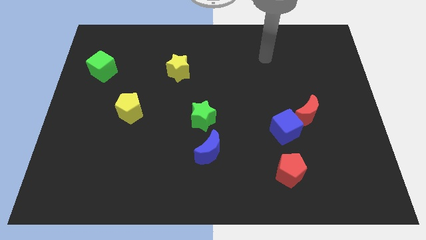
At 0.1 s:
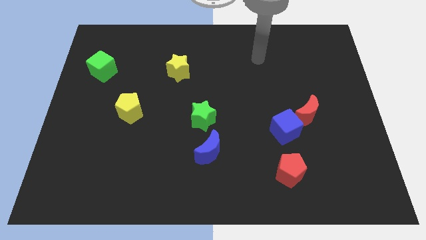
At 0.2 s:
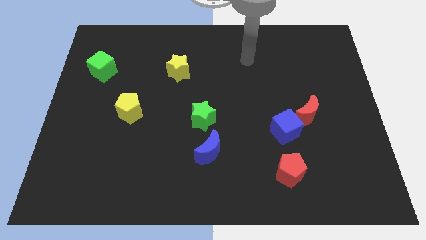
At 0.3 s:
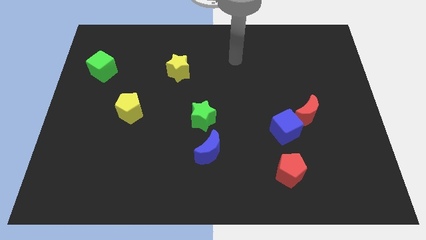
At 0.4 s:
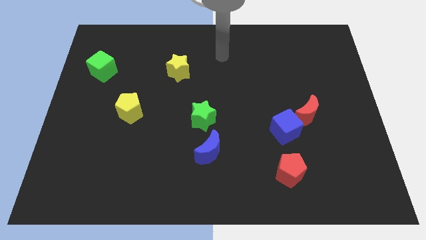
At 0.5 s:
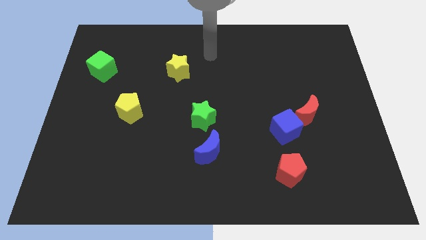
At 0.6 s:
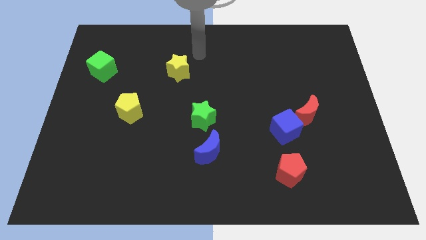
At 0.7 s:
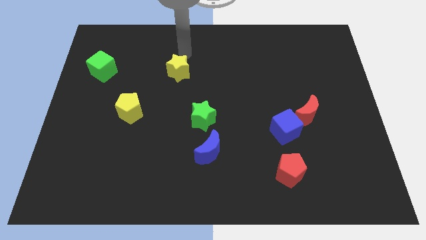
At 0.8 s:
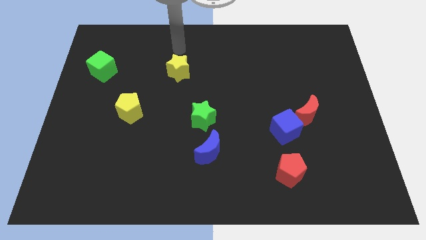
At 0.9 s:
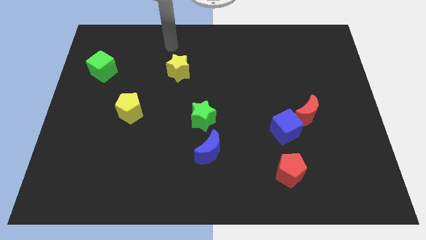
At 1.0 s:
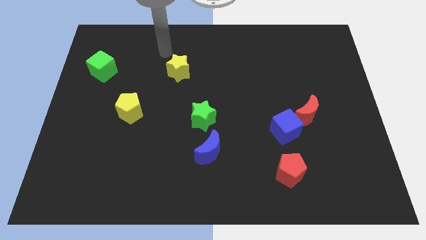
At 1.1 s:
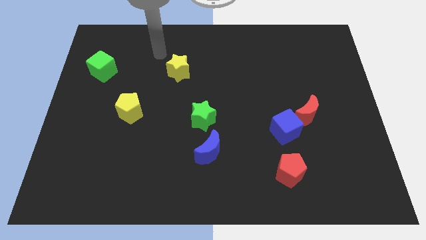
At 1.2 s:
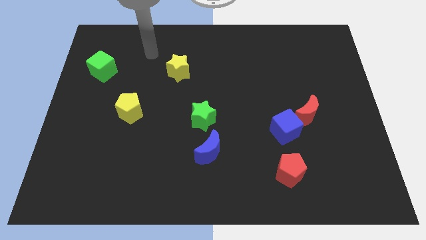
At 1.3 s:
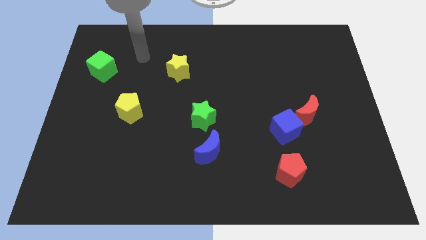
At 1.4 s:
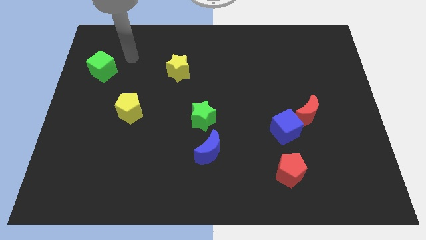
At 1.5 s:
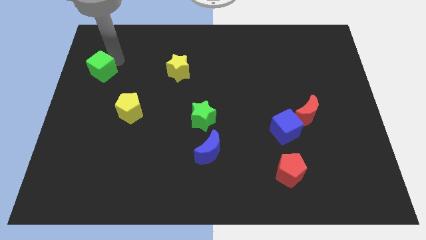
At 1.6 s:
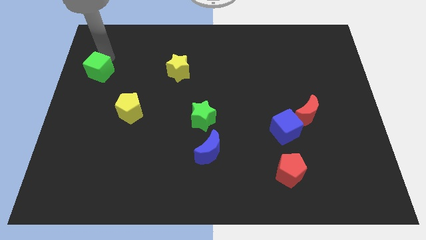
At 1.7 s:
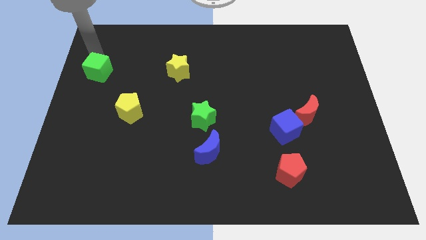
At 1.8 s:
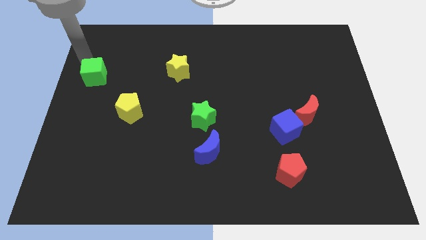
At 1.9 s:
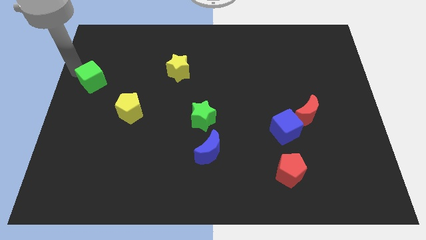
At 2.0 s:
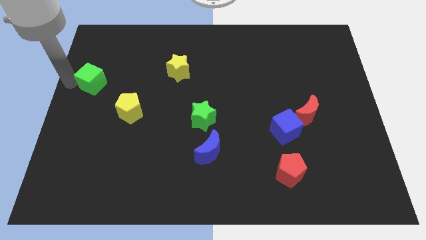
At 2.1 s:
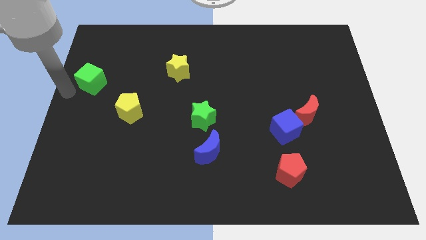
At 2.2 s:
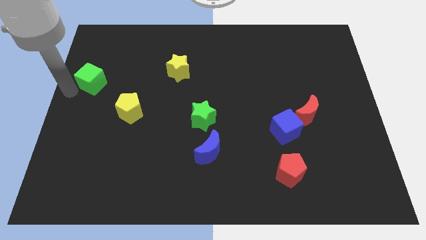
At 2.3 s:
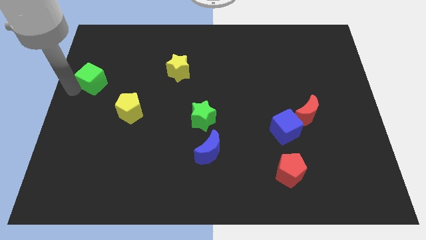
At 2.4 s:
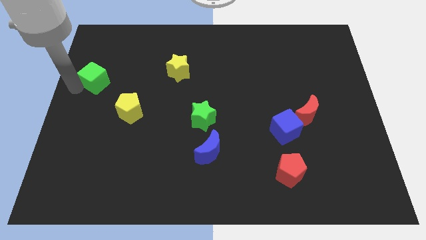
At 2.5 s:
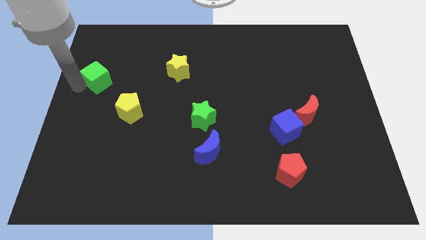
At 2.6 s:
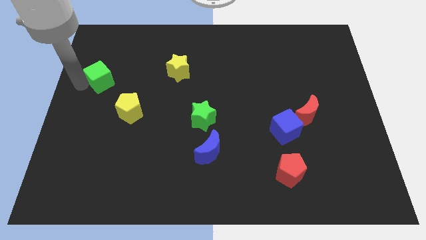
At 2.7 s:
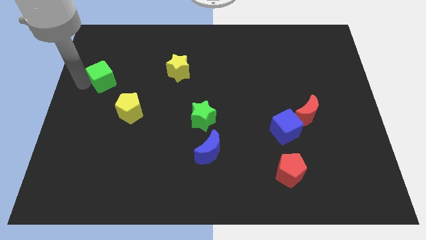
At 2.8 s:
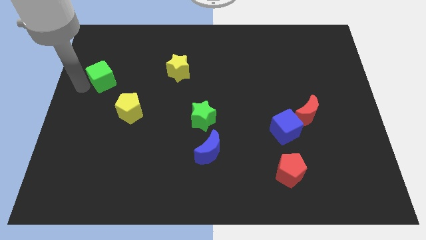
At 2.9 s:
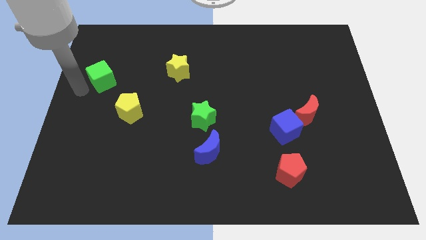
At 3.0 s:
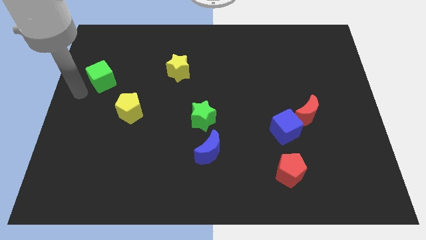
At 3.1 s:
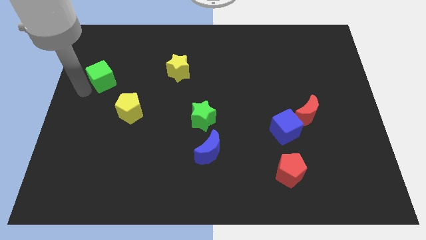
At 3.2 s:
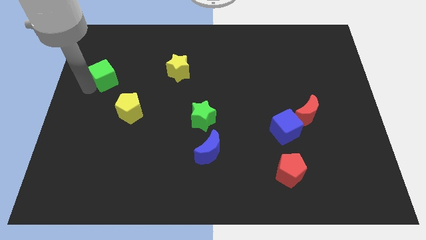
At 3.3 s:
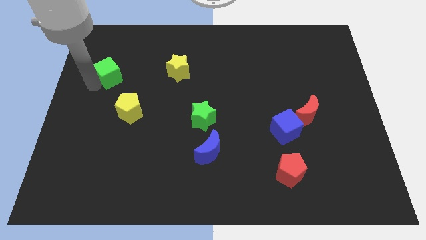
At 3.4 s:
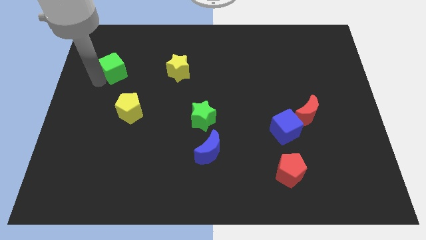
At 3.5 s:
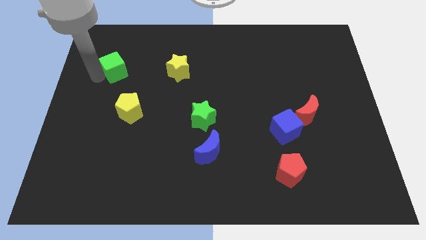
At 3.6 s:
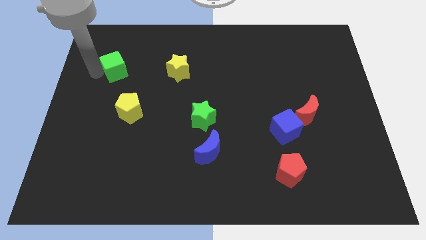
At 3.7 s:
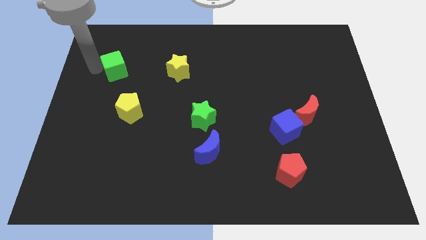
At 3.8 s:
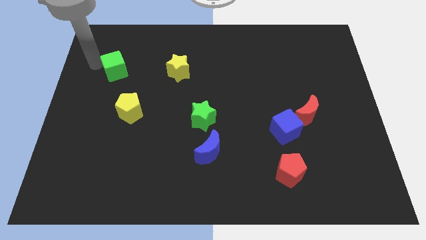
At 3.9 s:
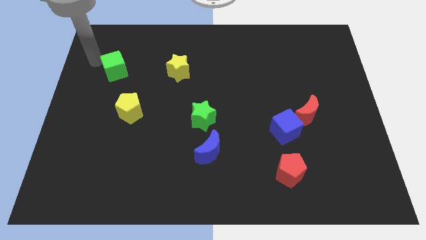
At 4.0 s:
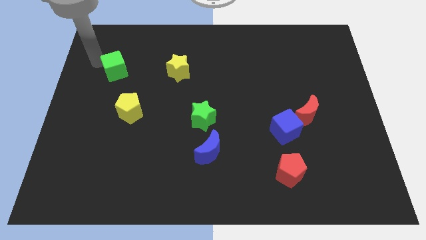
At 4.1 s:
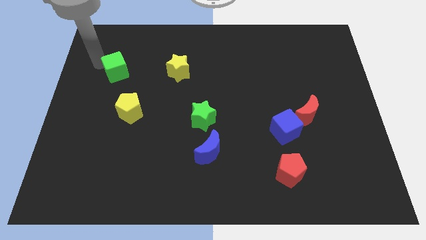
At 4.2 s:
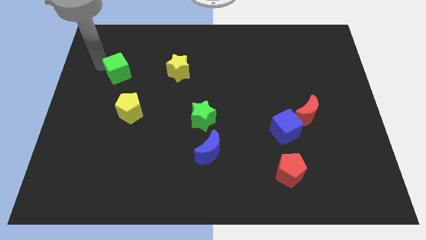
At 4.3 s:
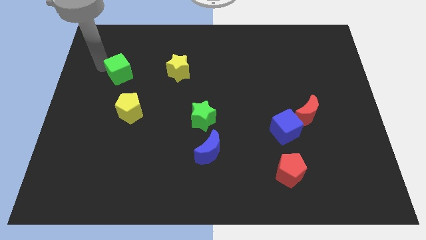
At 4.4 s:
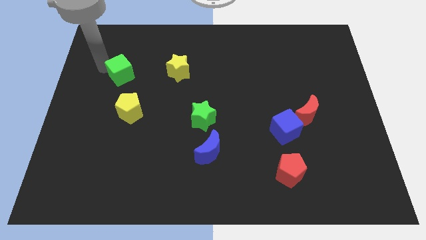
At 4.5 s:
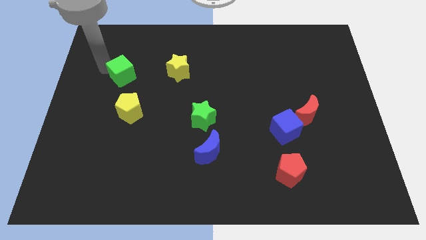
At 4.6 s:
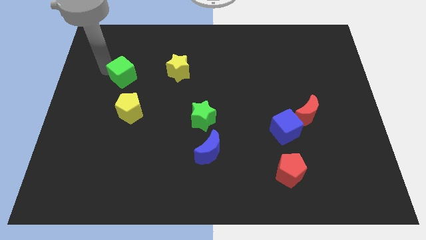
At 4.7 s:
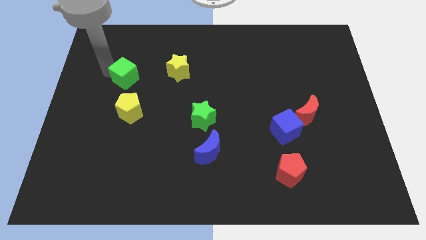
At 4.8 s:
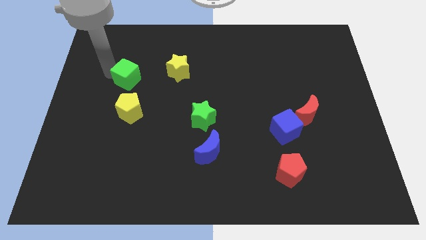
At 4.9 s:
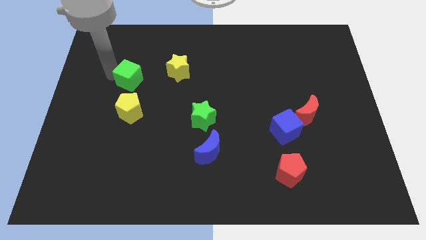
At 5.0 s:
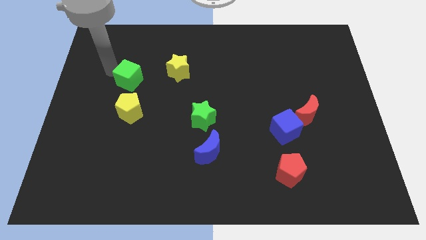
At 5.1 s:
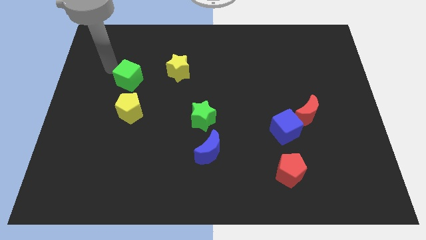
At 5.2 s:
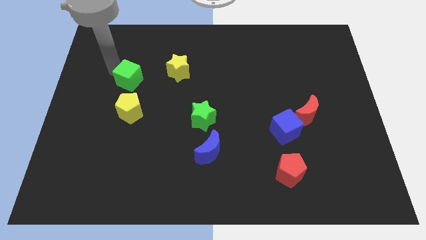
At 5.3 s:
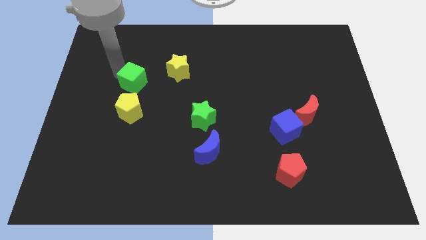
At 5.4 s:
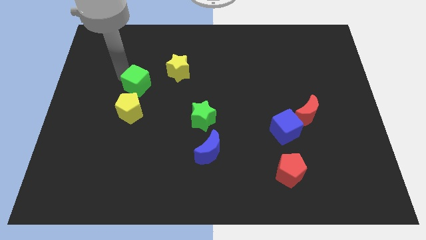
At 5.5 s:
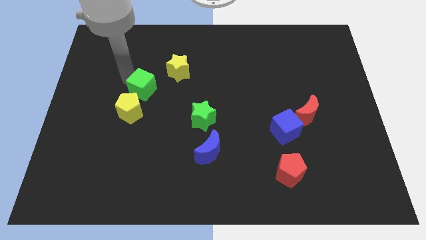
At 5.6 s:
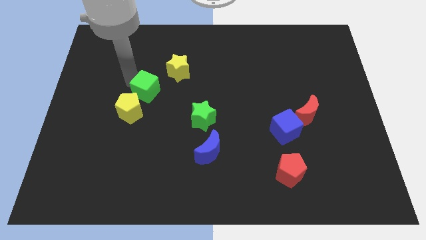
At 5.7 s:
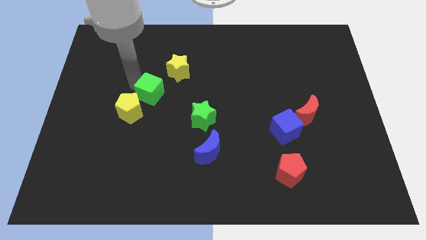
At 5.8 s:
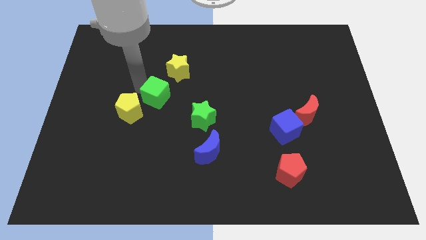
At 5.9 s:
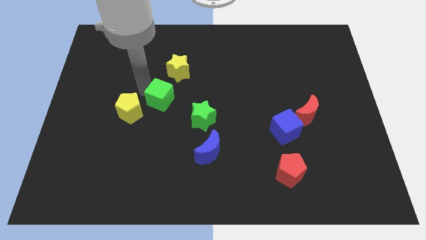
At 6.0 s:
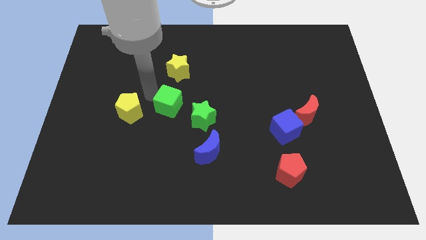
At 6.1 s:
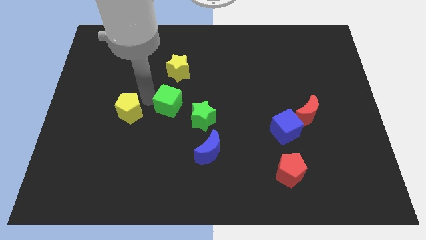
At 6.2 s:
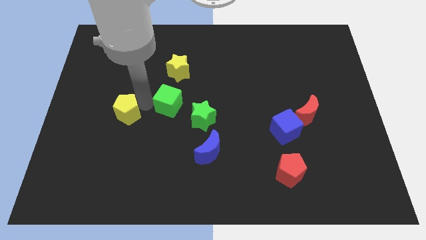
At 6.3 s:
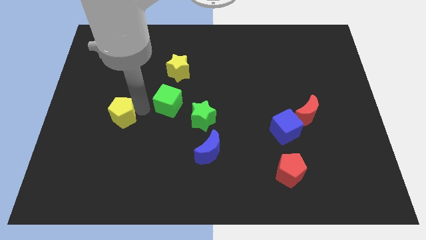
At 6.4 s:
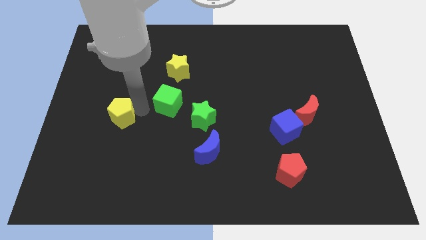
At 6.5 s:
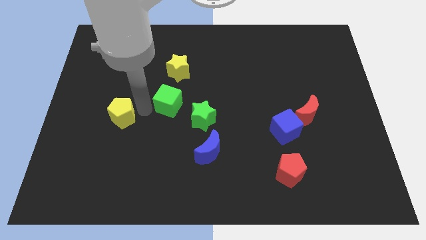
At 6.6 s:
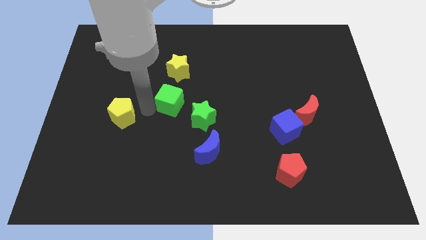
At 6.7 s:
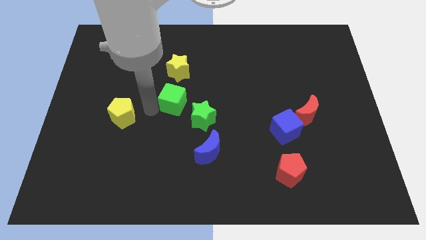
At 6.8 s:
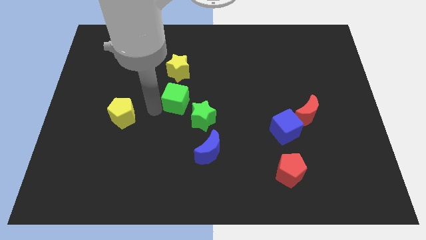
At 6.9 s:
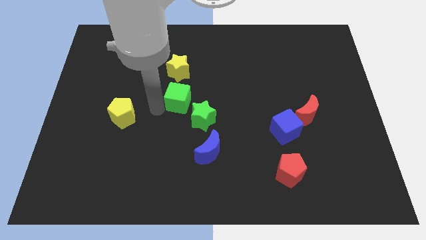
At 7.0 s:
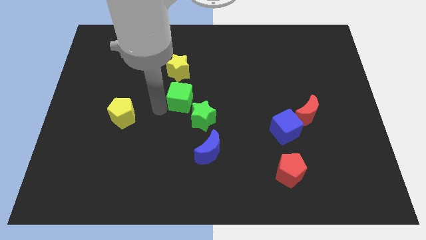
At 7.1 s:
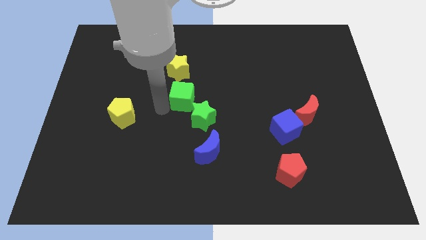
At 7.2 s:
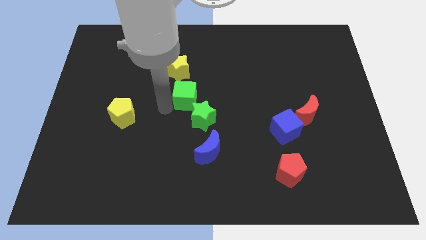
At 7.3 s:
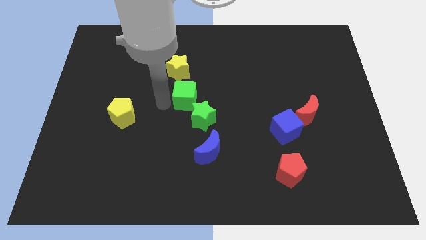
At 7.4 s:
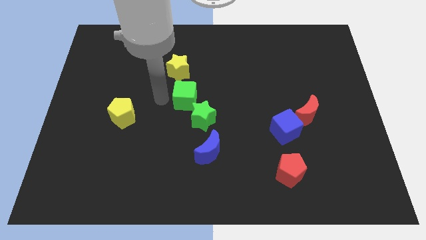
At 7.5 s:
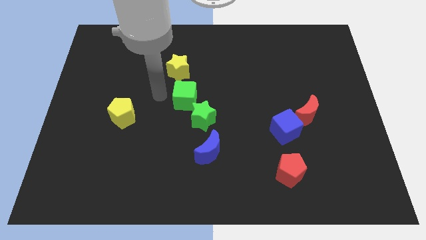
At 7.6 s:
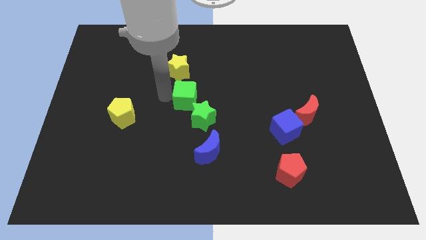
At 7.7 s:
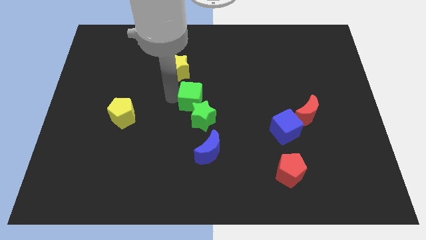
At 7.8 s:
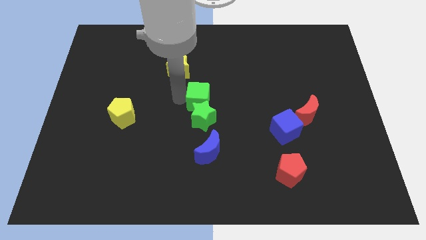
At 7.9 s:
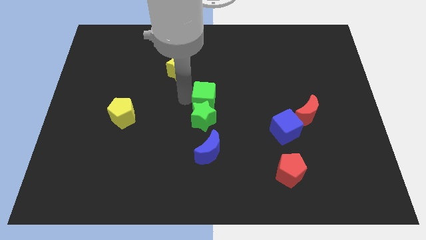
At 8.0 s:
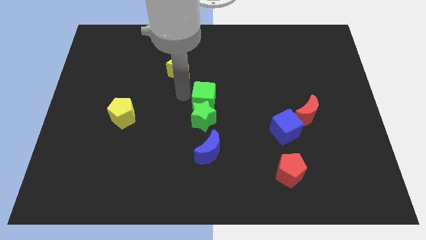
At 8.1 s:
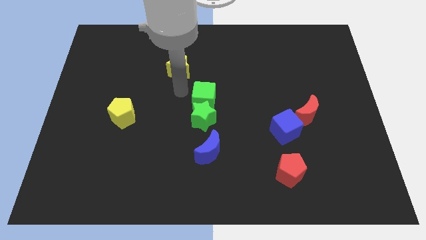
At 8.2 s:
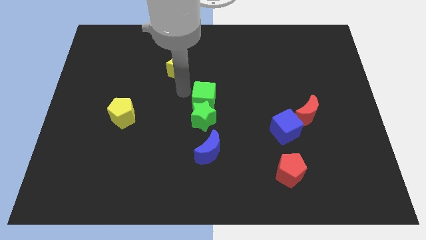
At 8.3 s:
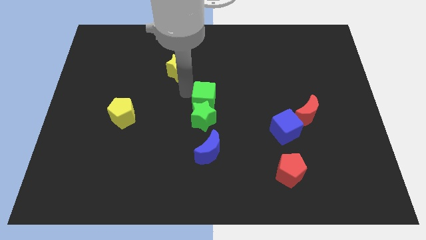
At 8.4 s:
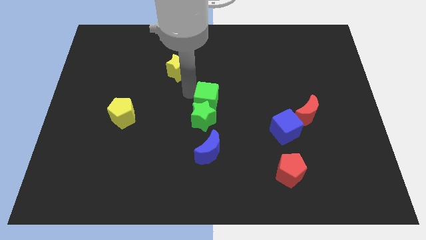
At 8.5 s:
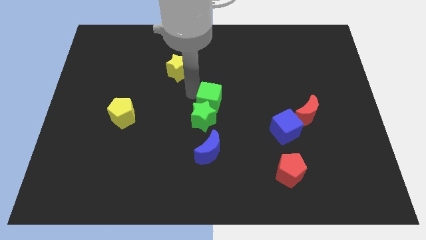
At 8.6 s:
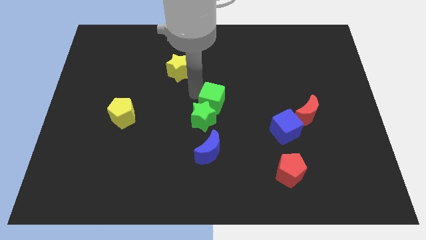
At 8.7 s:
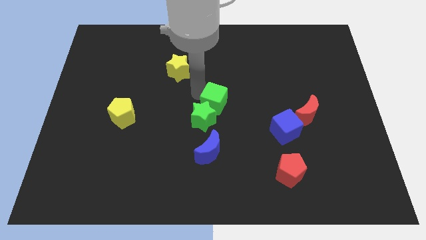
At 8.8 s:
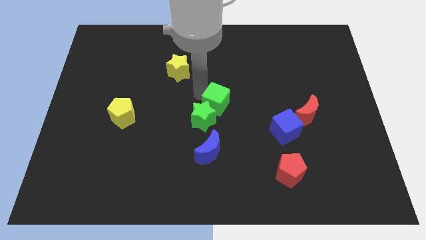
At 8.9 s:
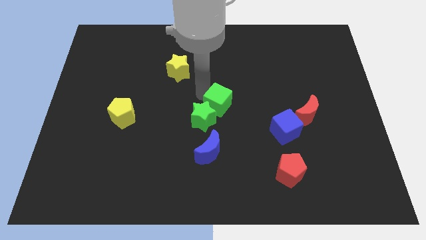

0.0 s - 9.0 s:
move the green cube to the right side of the green star
